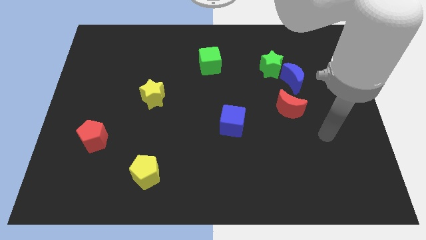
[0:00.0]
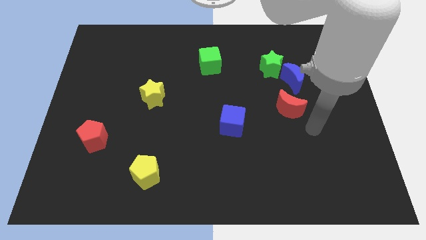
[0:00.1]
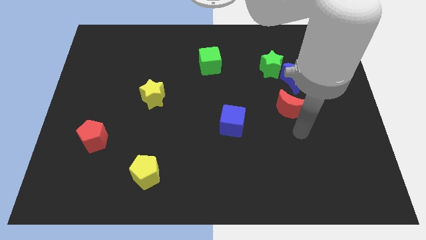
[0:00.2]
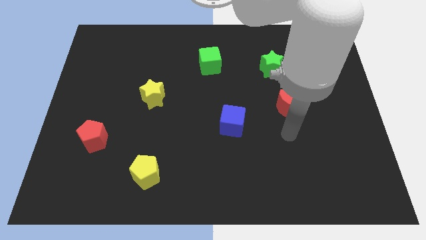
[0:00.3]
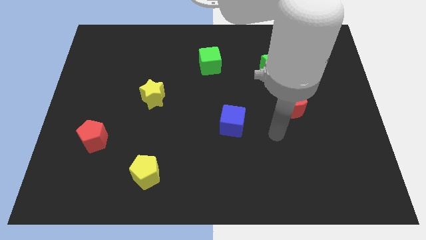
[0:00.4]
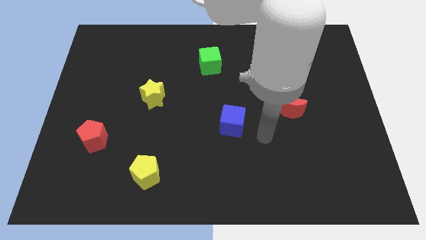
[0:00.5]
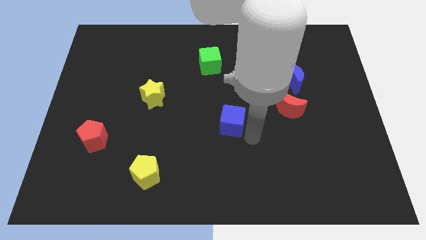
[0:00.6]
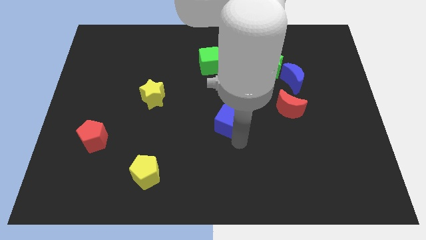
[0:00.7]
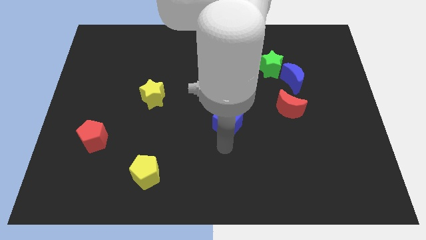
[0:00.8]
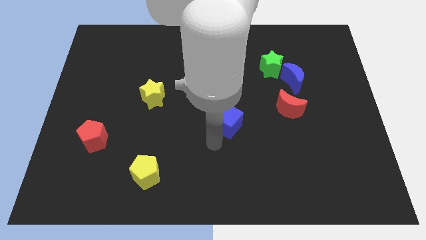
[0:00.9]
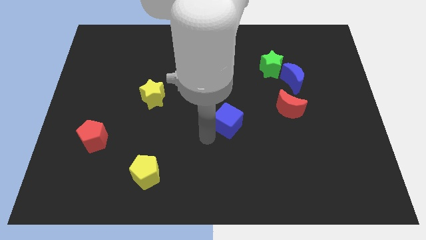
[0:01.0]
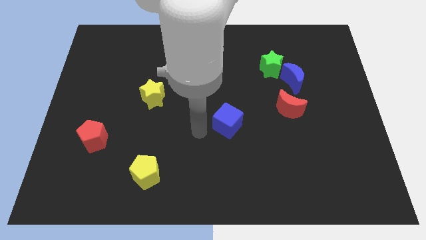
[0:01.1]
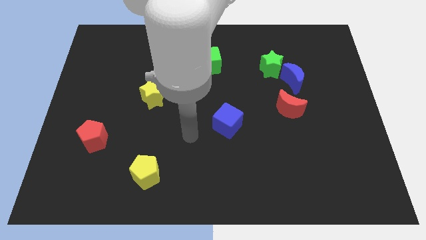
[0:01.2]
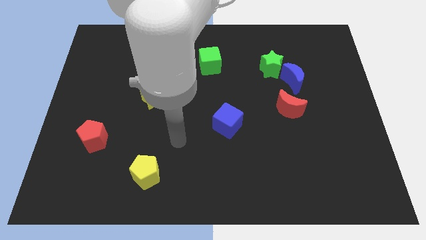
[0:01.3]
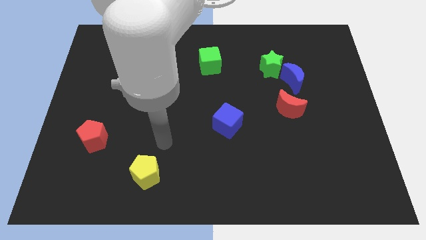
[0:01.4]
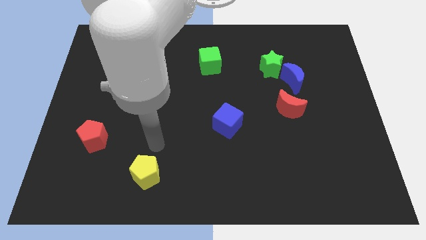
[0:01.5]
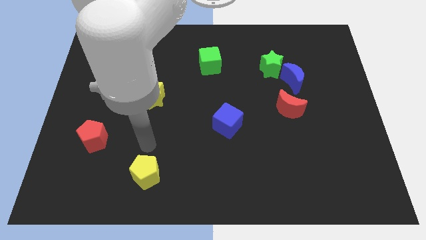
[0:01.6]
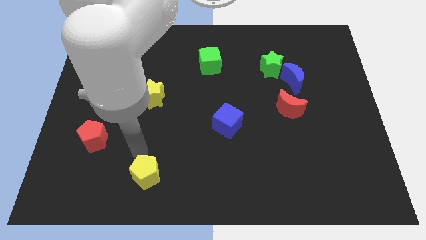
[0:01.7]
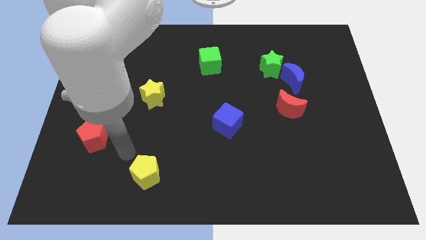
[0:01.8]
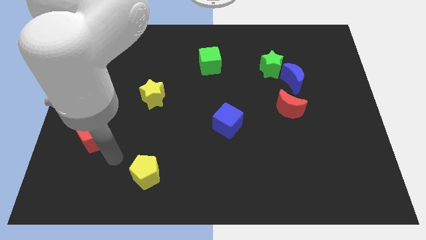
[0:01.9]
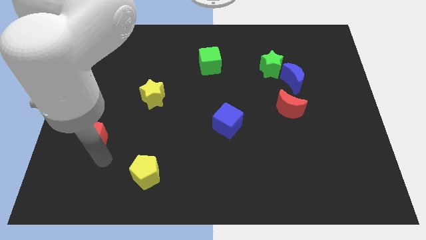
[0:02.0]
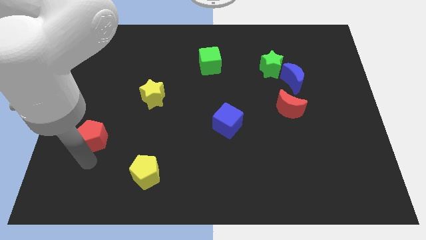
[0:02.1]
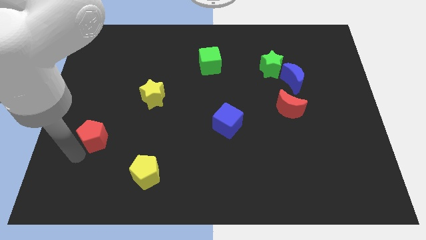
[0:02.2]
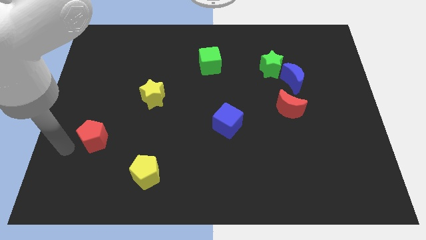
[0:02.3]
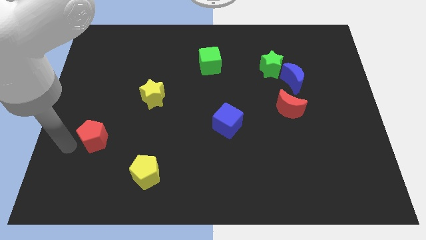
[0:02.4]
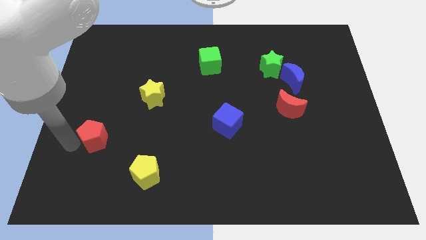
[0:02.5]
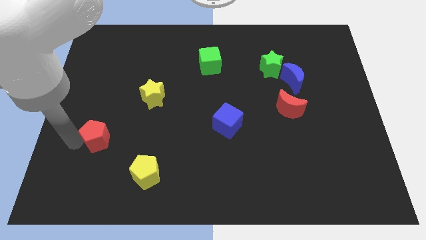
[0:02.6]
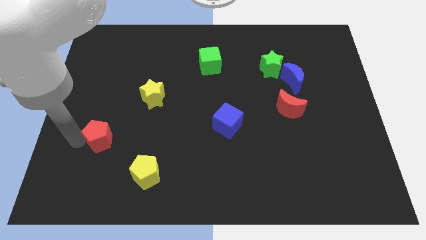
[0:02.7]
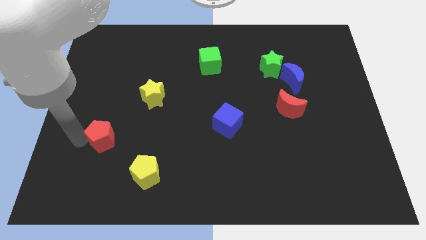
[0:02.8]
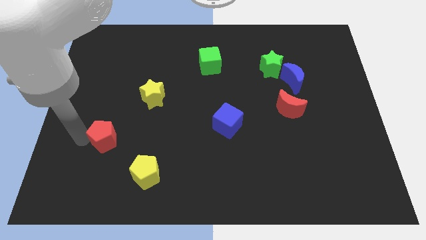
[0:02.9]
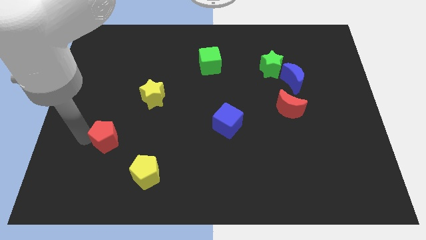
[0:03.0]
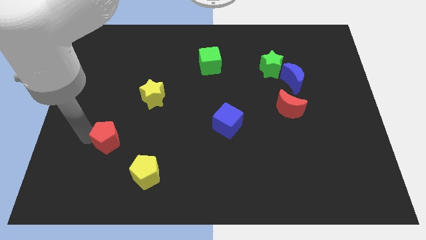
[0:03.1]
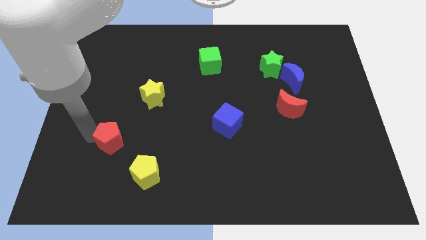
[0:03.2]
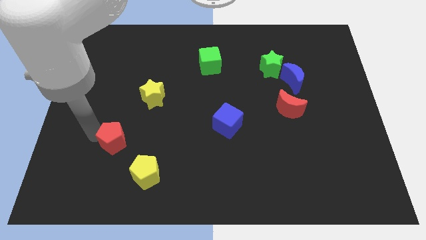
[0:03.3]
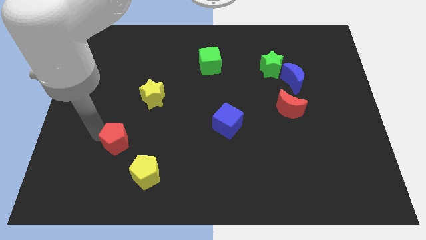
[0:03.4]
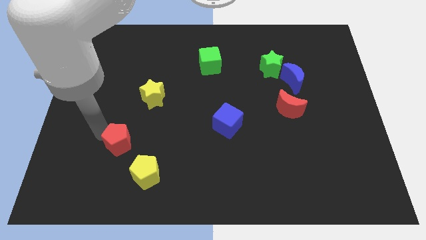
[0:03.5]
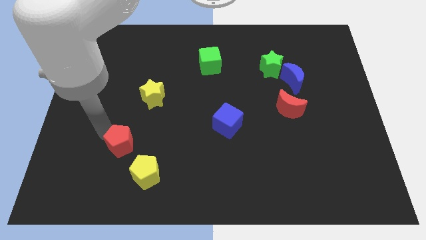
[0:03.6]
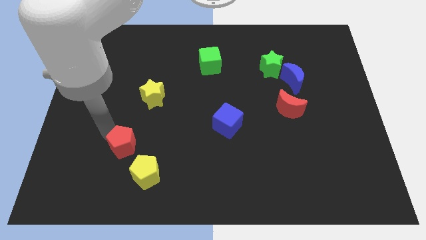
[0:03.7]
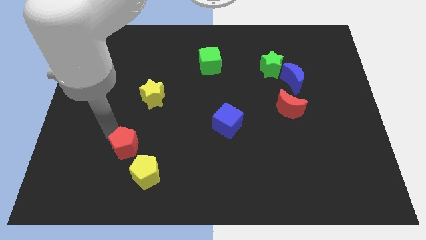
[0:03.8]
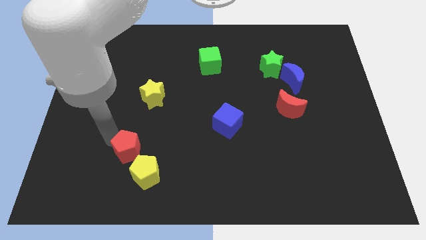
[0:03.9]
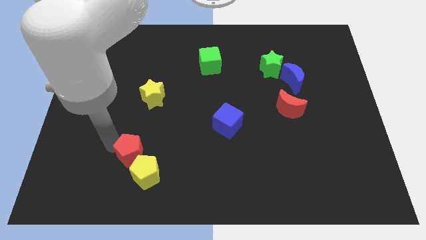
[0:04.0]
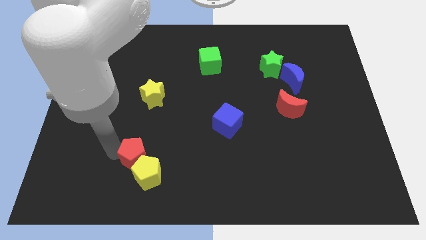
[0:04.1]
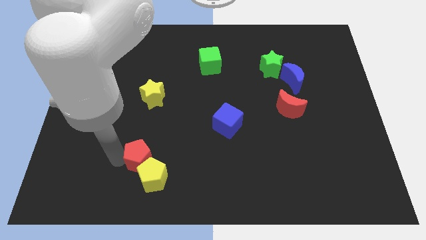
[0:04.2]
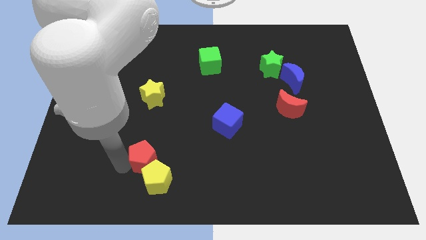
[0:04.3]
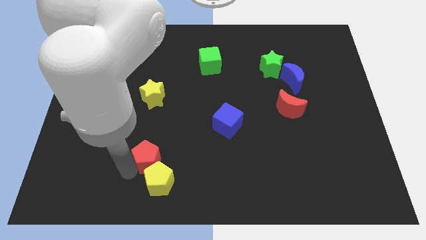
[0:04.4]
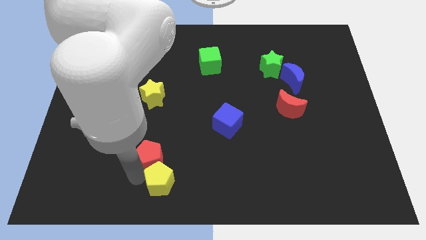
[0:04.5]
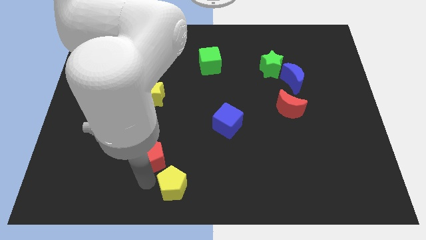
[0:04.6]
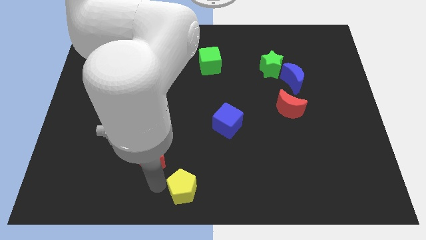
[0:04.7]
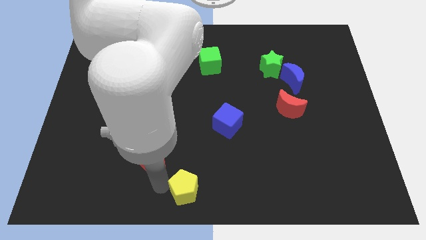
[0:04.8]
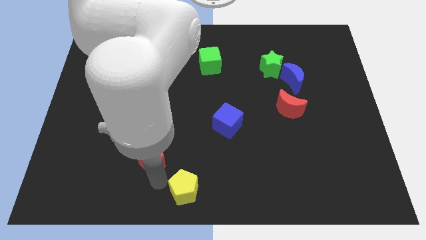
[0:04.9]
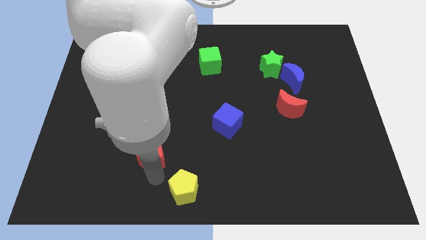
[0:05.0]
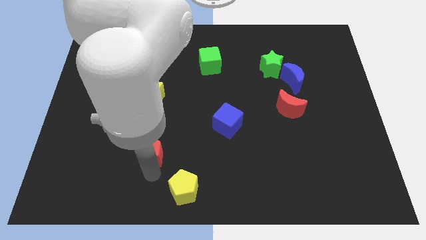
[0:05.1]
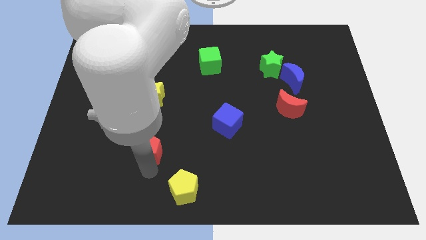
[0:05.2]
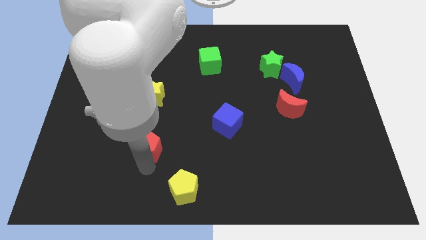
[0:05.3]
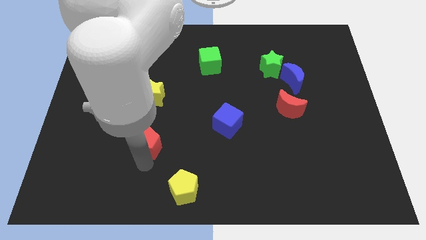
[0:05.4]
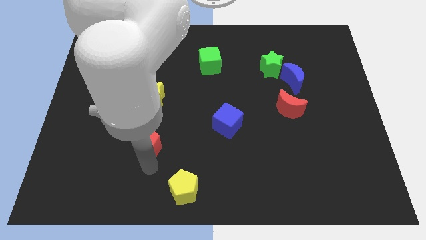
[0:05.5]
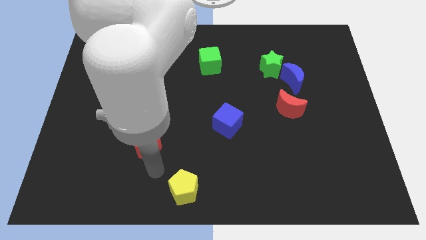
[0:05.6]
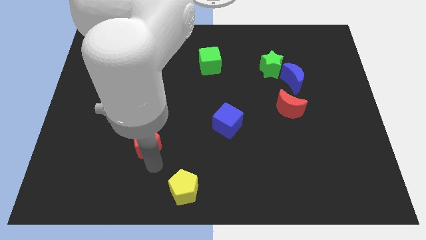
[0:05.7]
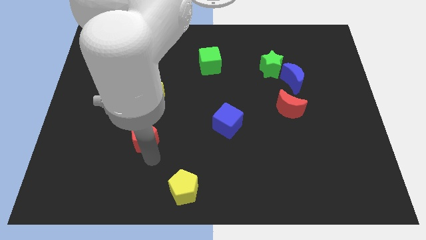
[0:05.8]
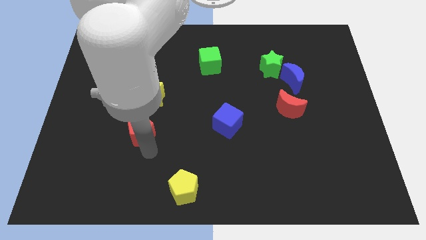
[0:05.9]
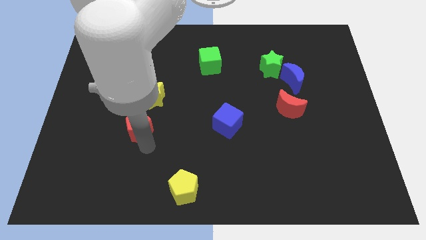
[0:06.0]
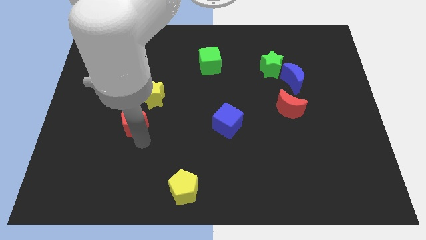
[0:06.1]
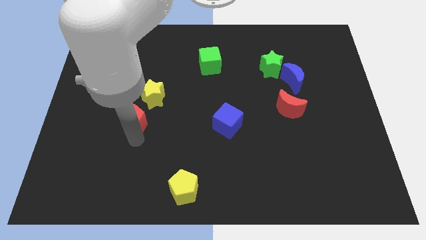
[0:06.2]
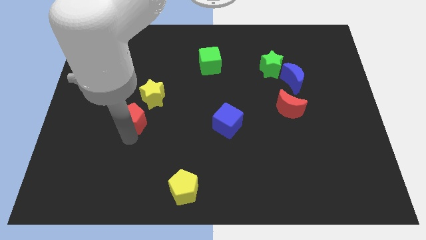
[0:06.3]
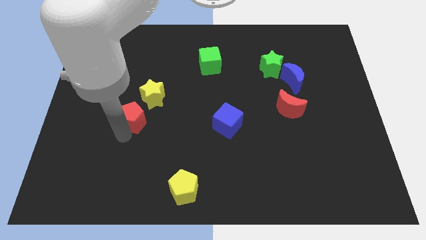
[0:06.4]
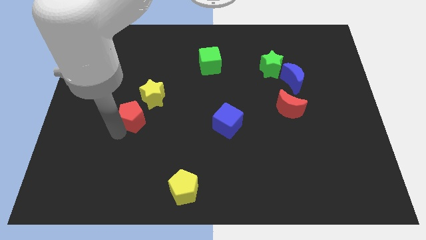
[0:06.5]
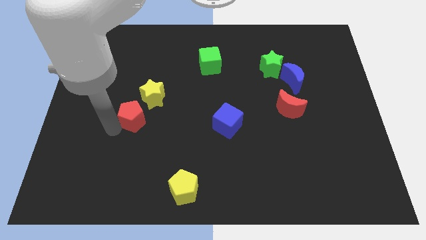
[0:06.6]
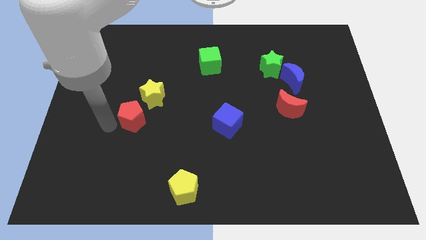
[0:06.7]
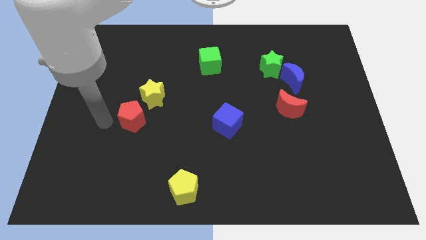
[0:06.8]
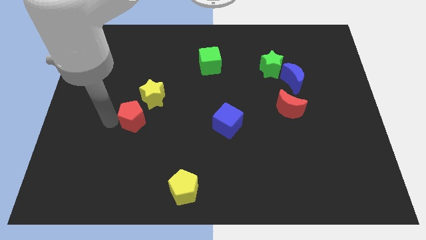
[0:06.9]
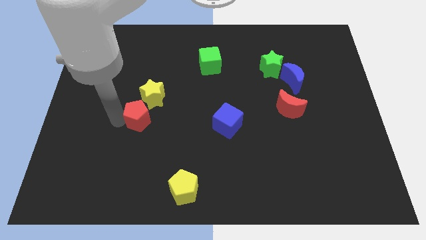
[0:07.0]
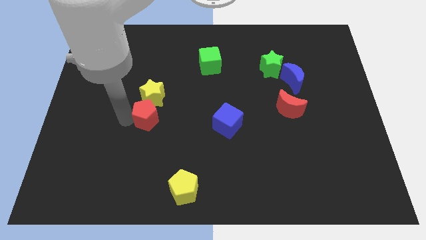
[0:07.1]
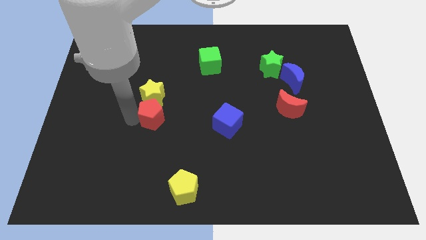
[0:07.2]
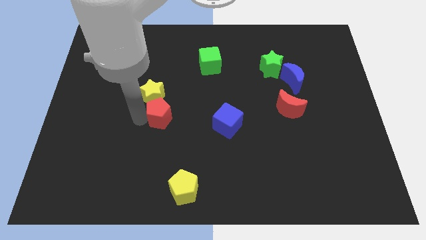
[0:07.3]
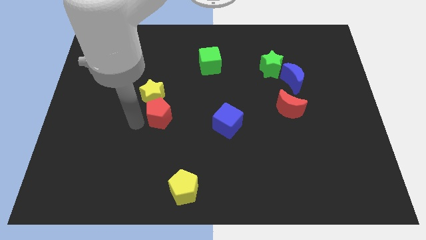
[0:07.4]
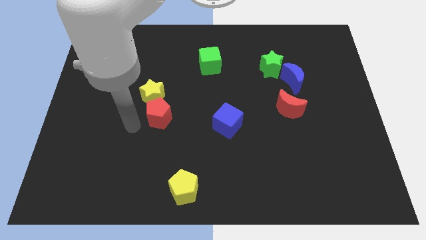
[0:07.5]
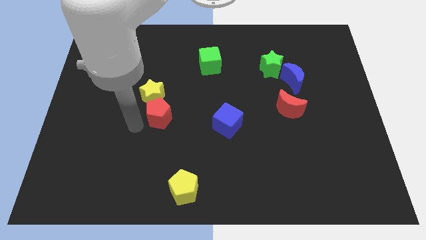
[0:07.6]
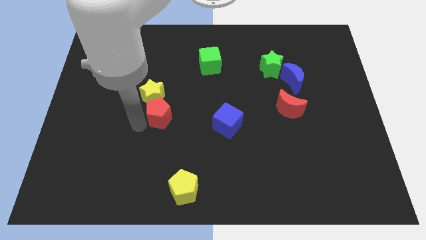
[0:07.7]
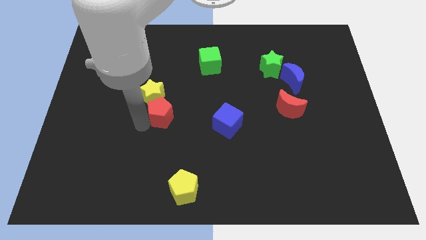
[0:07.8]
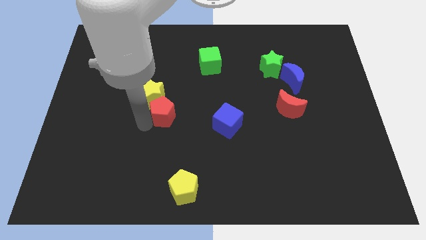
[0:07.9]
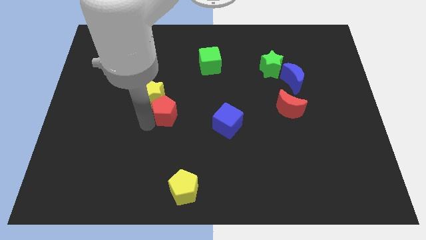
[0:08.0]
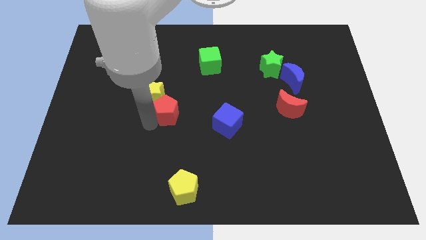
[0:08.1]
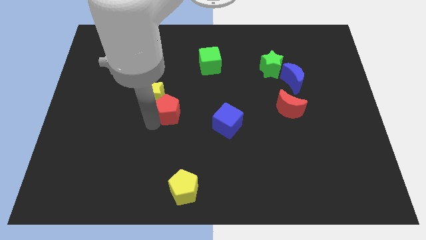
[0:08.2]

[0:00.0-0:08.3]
slide the red pentagon just right of the yellow star
